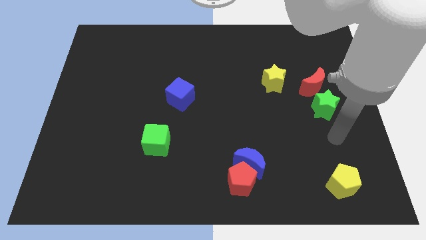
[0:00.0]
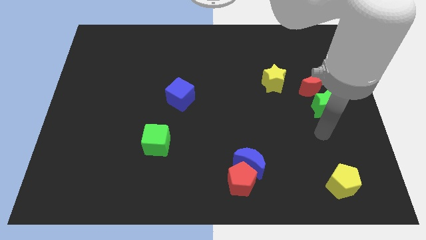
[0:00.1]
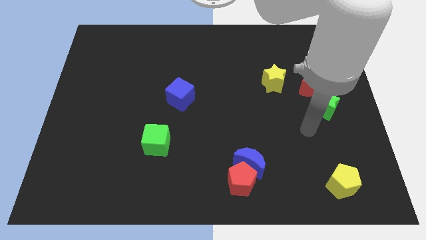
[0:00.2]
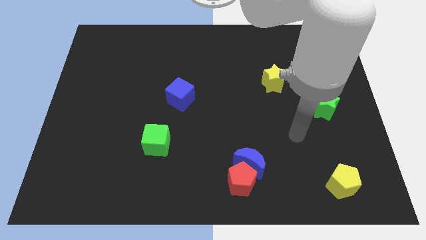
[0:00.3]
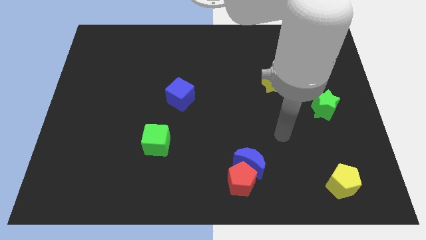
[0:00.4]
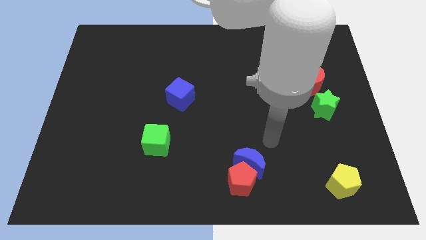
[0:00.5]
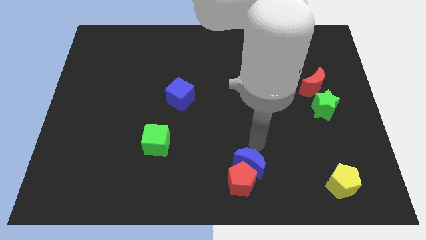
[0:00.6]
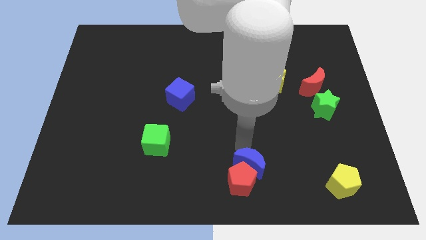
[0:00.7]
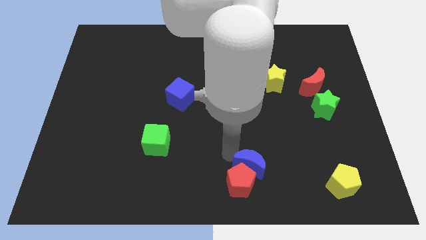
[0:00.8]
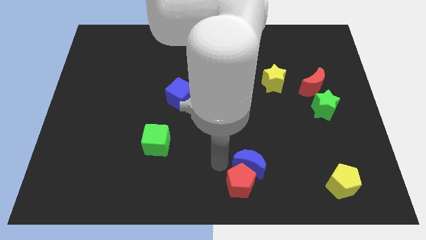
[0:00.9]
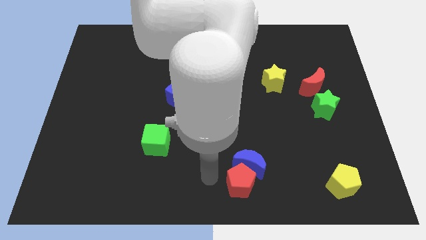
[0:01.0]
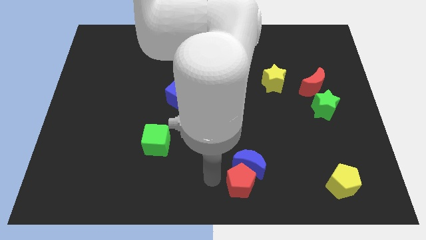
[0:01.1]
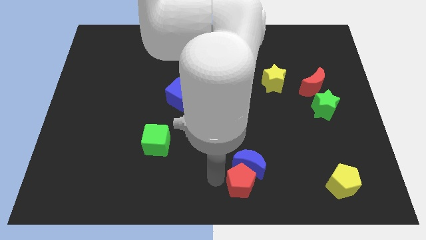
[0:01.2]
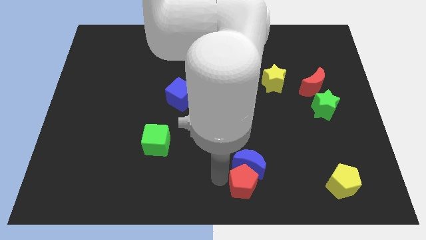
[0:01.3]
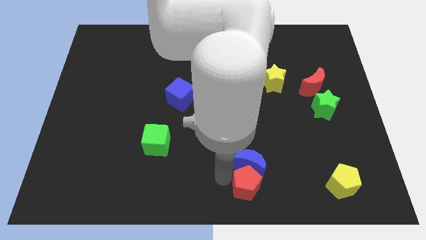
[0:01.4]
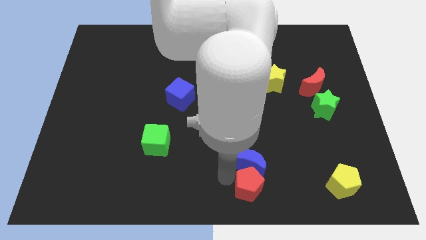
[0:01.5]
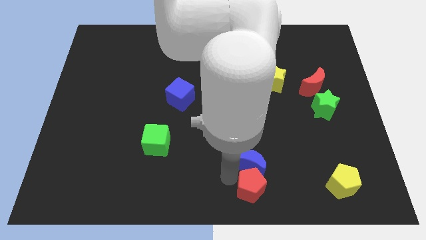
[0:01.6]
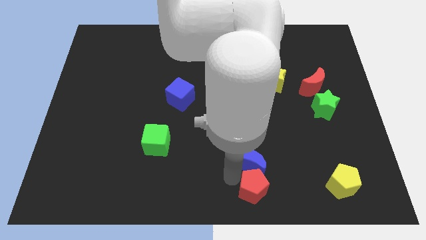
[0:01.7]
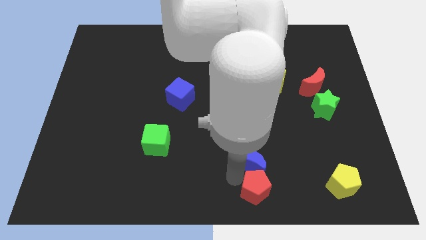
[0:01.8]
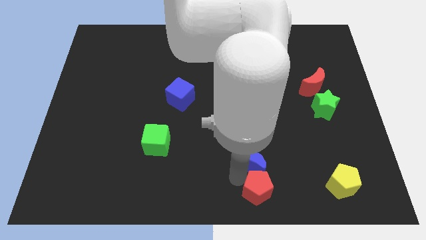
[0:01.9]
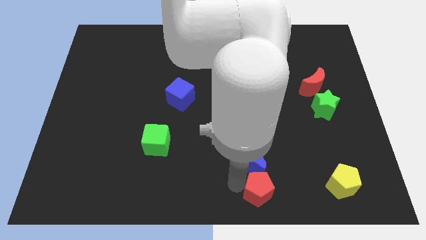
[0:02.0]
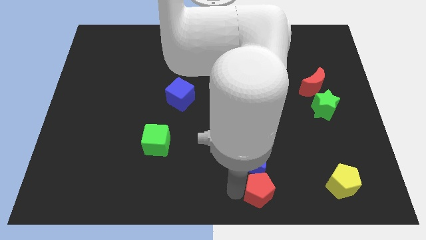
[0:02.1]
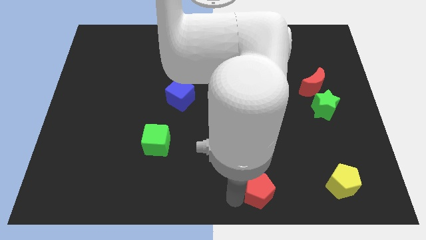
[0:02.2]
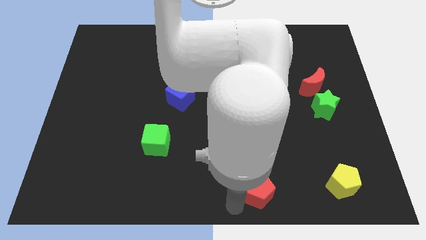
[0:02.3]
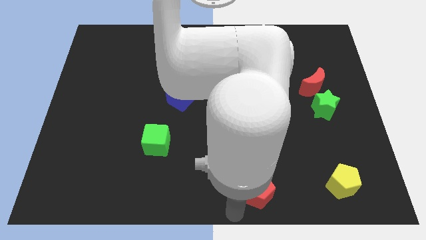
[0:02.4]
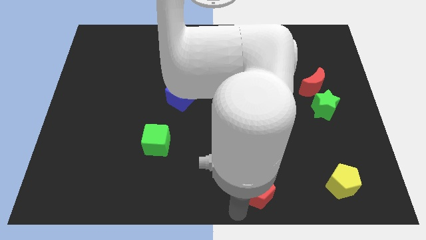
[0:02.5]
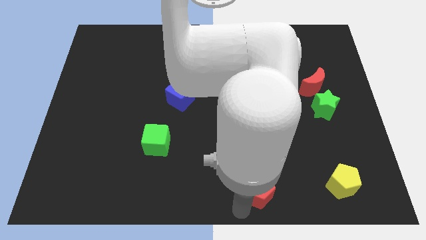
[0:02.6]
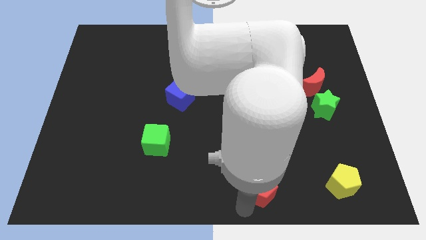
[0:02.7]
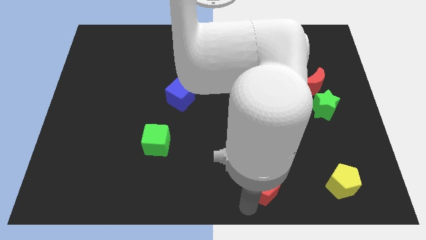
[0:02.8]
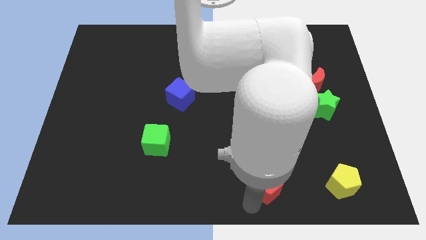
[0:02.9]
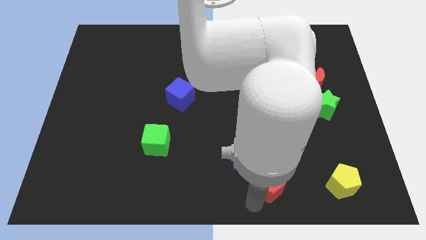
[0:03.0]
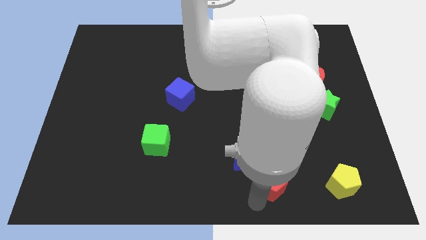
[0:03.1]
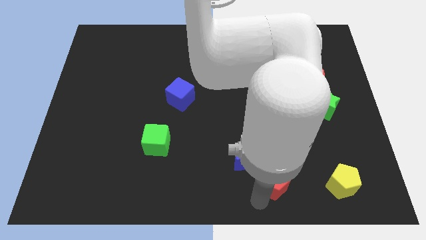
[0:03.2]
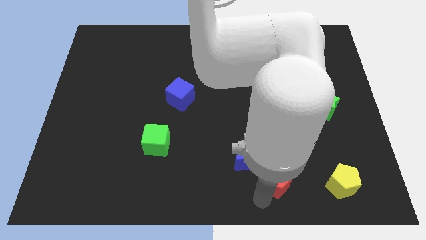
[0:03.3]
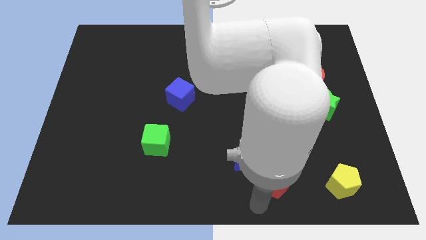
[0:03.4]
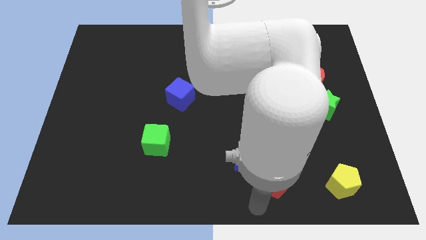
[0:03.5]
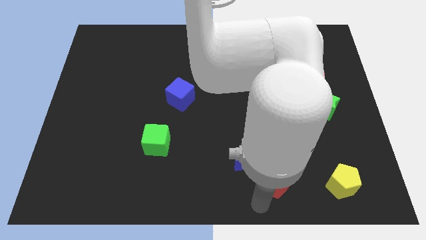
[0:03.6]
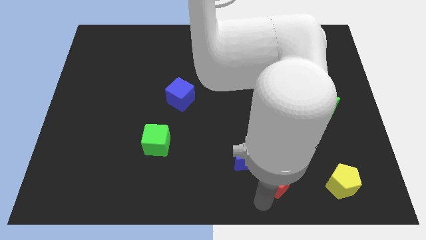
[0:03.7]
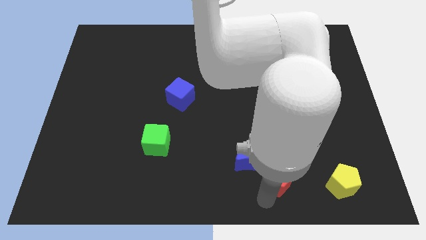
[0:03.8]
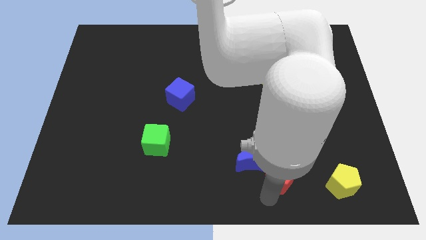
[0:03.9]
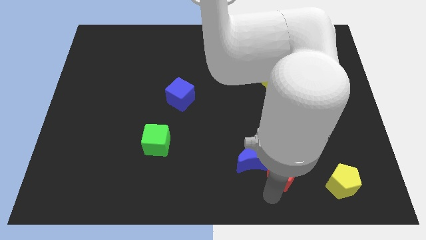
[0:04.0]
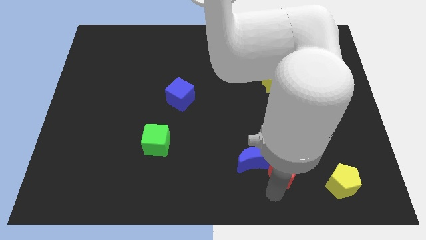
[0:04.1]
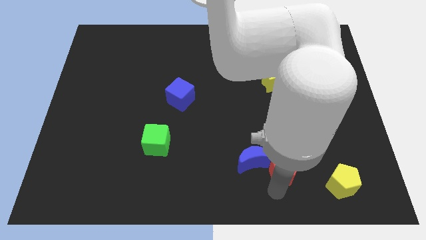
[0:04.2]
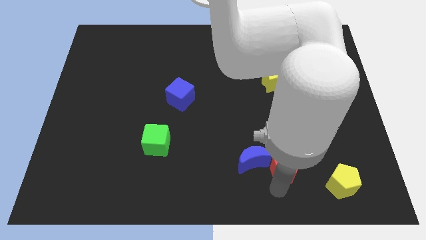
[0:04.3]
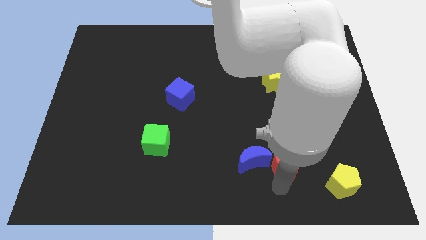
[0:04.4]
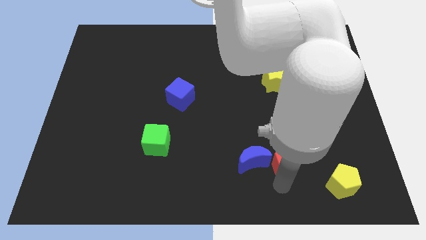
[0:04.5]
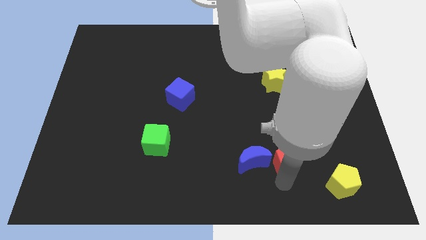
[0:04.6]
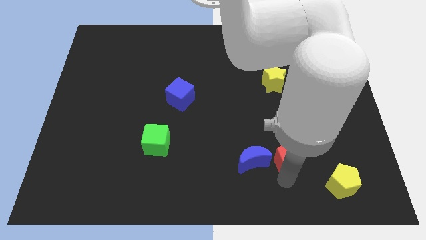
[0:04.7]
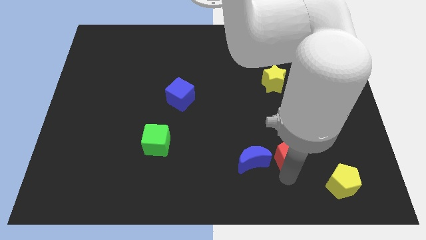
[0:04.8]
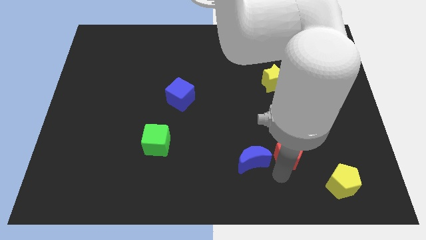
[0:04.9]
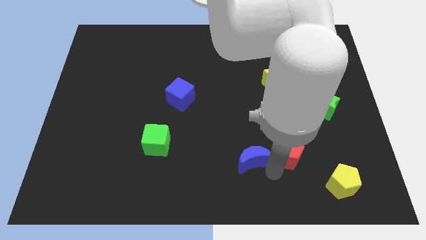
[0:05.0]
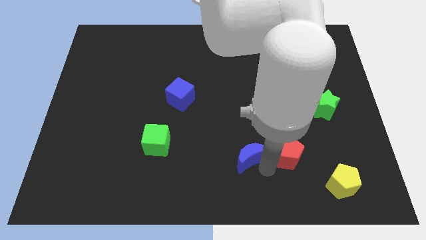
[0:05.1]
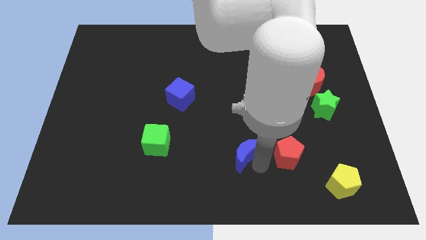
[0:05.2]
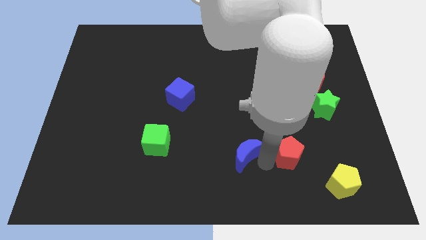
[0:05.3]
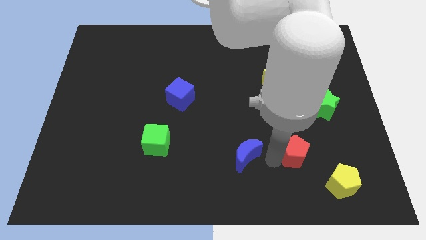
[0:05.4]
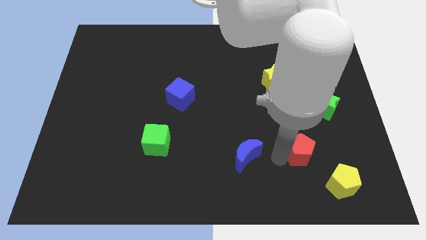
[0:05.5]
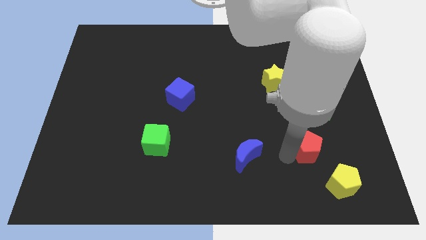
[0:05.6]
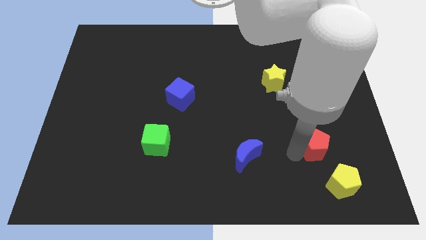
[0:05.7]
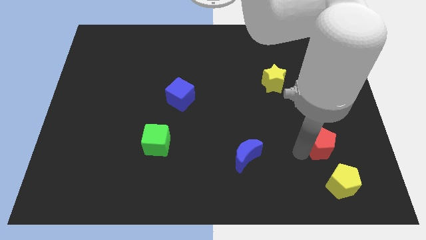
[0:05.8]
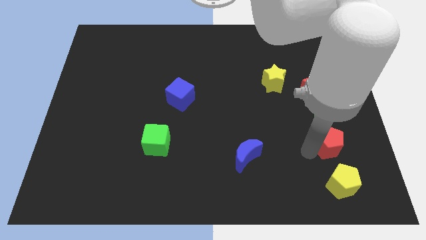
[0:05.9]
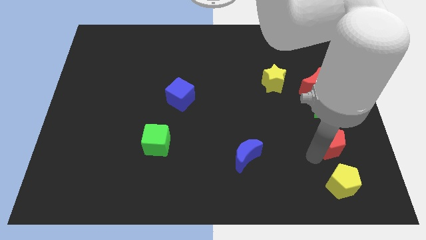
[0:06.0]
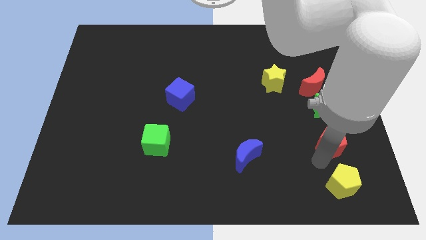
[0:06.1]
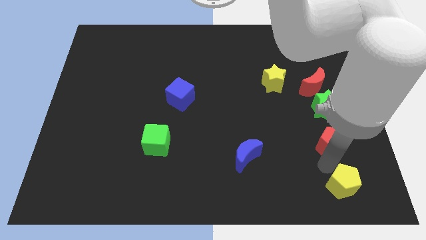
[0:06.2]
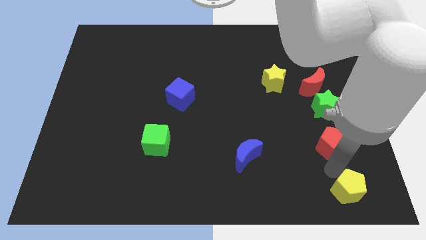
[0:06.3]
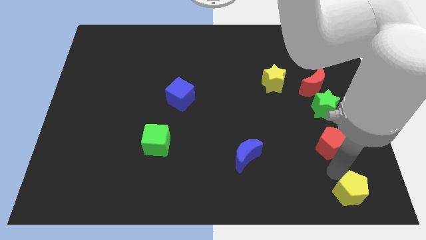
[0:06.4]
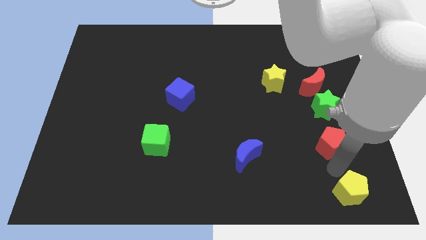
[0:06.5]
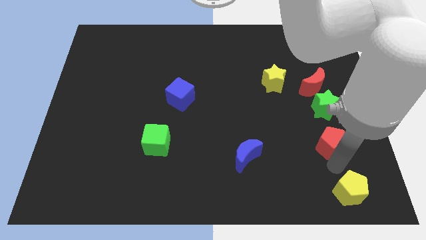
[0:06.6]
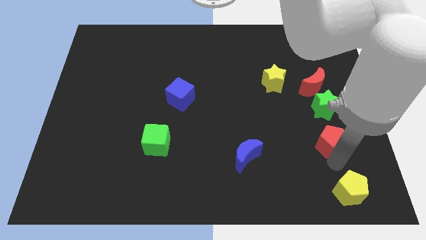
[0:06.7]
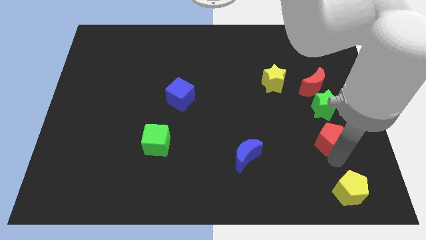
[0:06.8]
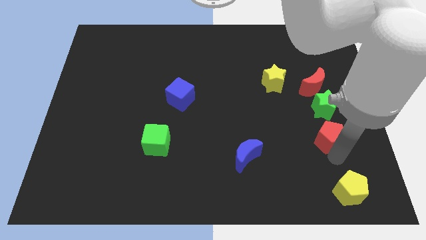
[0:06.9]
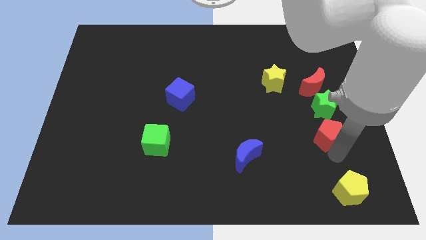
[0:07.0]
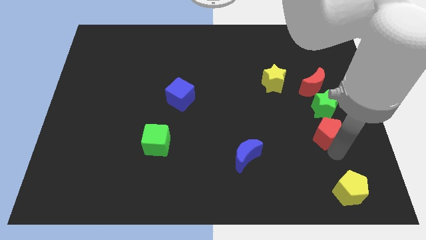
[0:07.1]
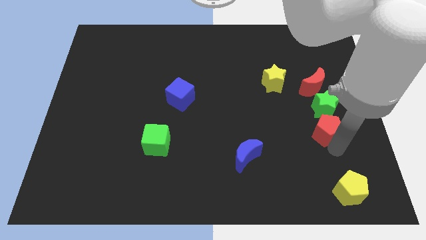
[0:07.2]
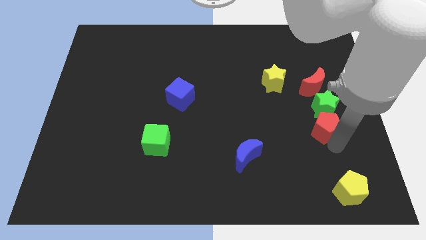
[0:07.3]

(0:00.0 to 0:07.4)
slide the red pentagon towards the green star
